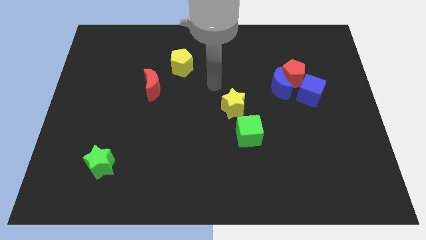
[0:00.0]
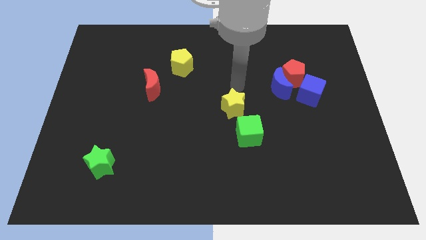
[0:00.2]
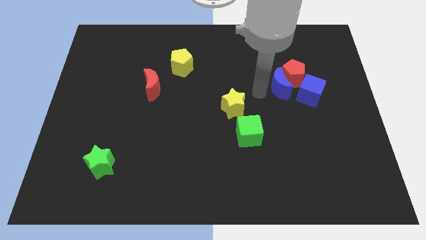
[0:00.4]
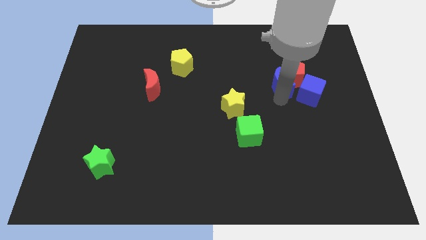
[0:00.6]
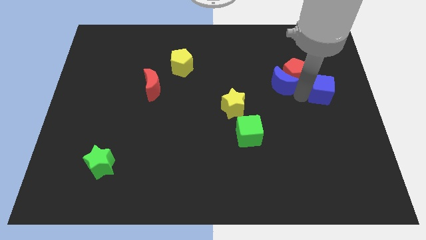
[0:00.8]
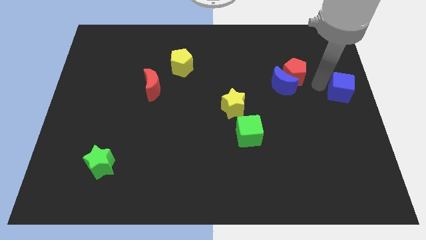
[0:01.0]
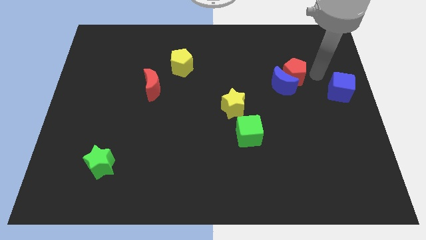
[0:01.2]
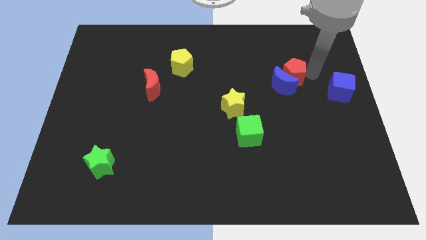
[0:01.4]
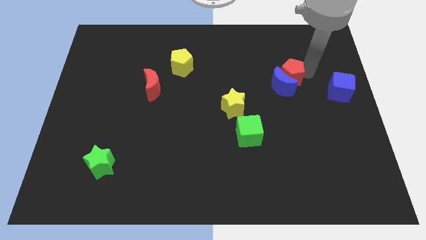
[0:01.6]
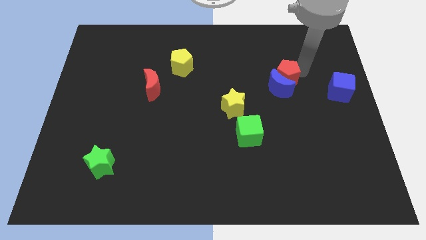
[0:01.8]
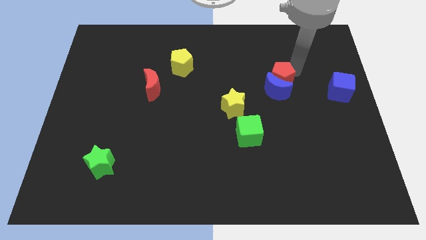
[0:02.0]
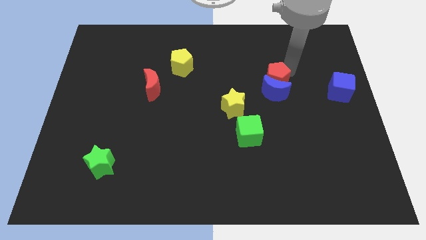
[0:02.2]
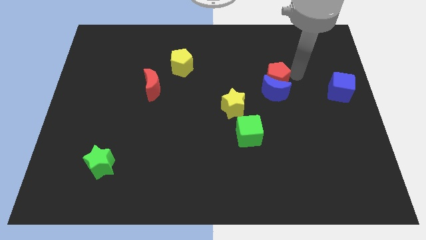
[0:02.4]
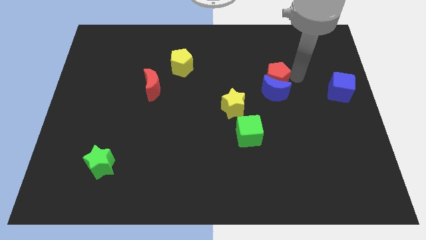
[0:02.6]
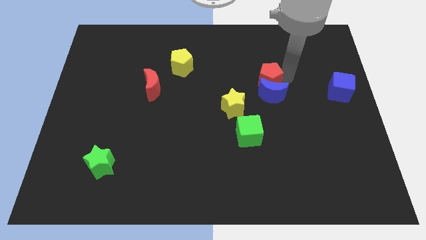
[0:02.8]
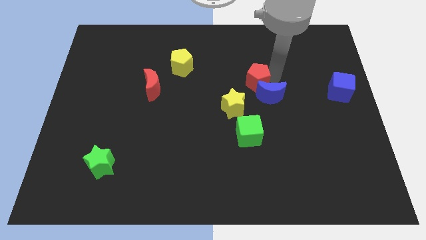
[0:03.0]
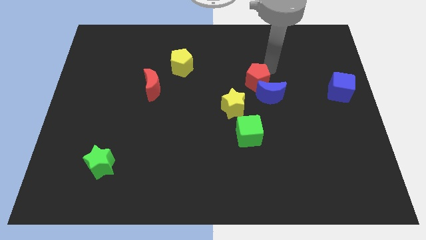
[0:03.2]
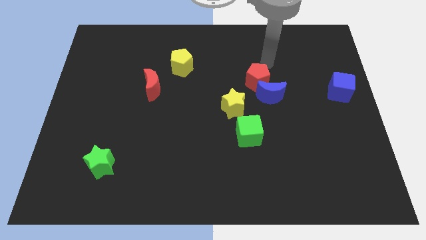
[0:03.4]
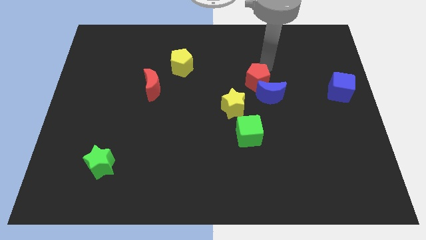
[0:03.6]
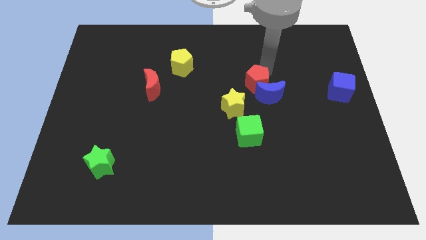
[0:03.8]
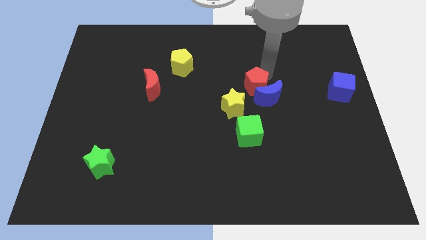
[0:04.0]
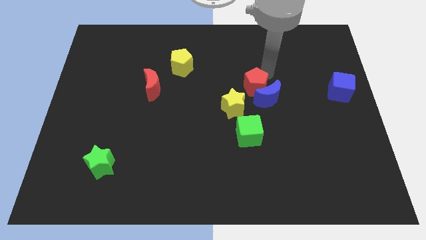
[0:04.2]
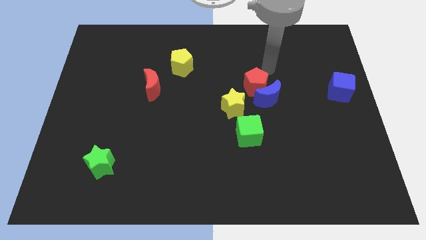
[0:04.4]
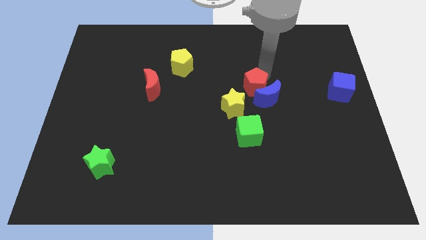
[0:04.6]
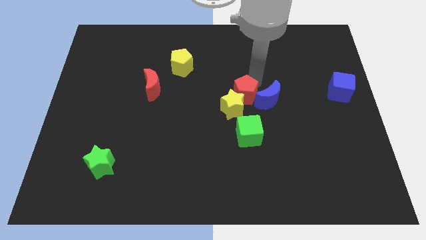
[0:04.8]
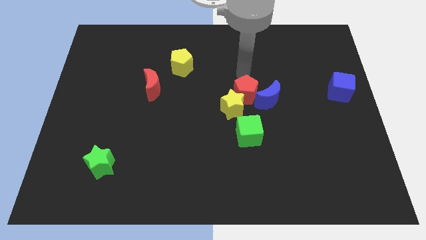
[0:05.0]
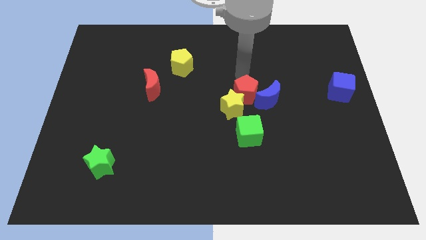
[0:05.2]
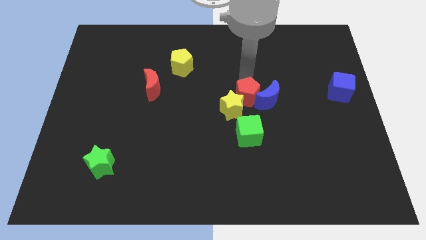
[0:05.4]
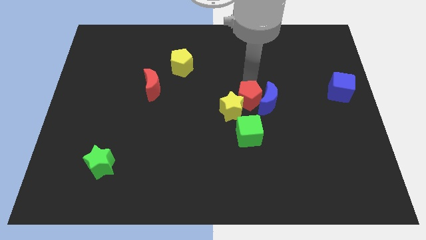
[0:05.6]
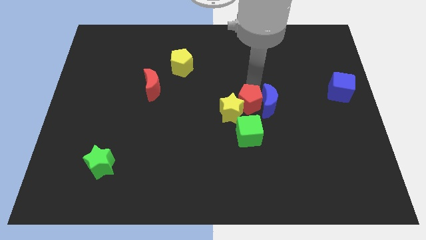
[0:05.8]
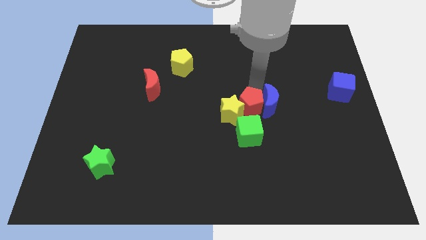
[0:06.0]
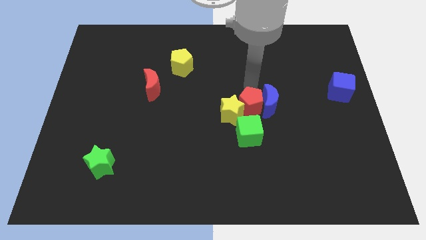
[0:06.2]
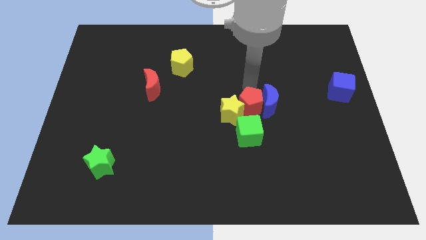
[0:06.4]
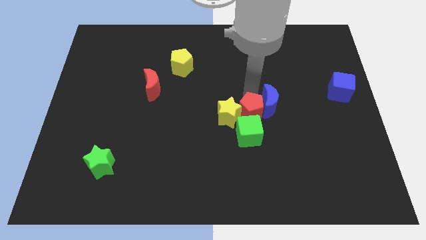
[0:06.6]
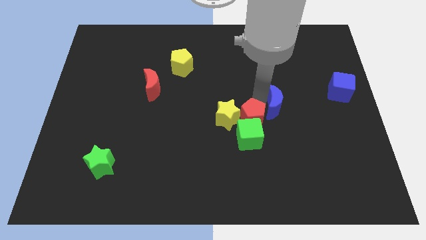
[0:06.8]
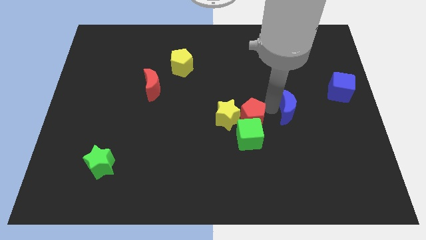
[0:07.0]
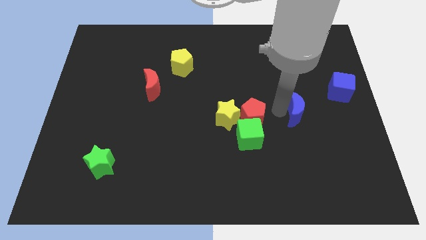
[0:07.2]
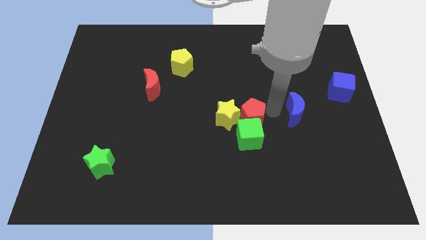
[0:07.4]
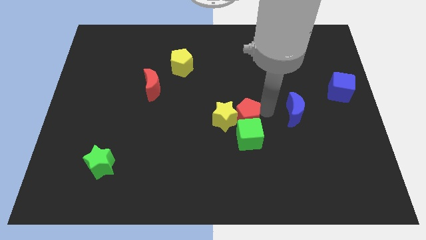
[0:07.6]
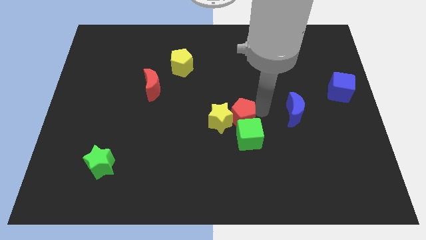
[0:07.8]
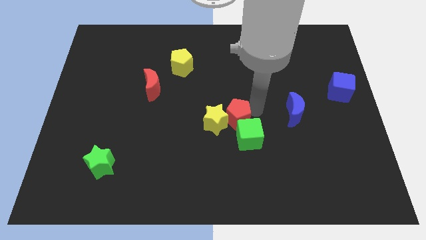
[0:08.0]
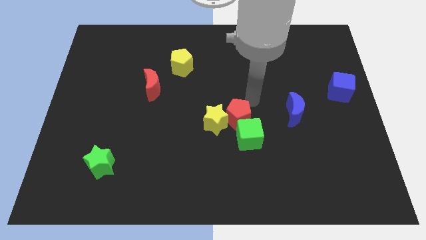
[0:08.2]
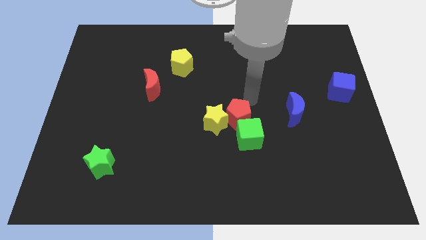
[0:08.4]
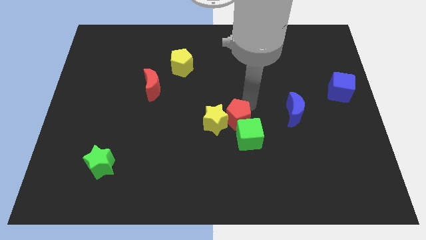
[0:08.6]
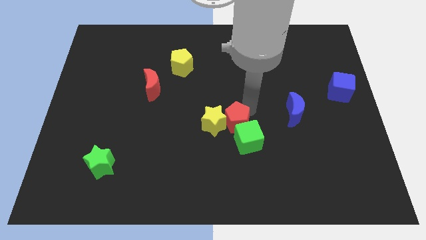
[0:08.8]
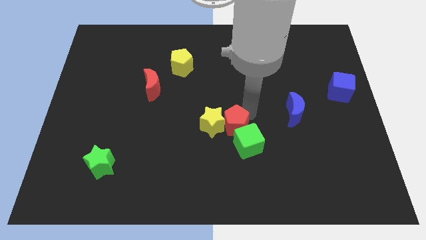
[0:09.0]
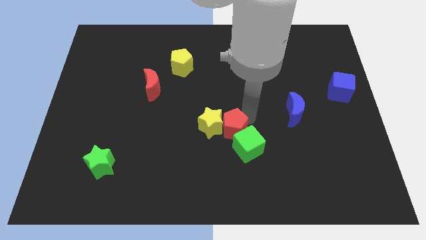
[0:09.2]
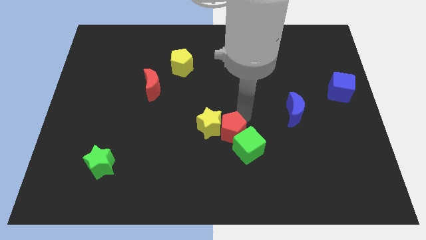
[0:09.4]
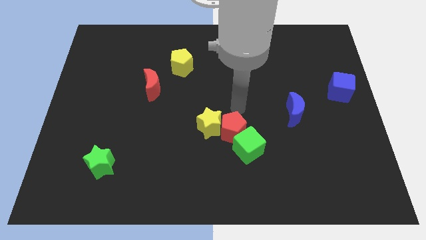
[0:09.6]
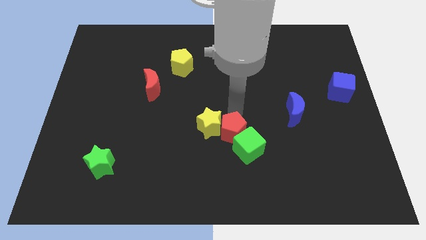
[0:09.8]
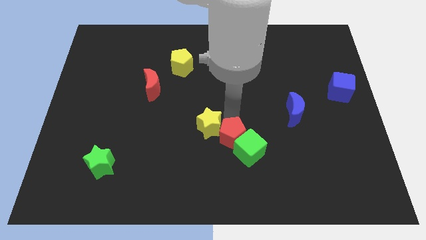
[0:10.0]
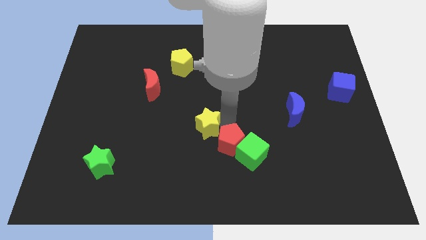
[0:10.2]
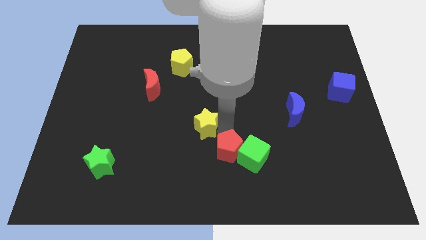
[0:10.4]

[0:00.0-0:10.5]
move the red pentagon diagonally down and to the left of the green cube

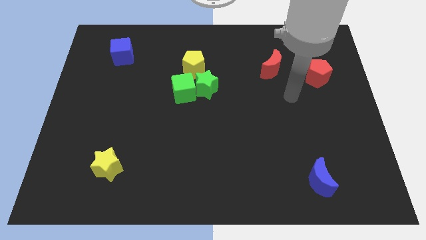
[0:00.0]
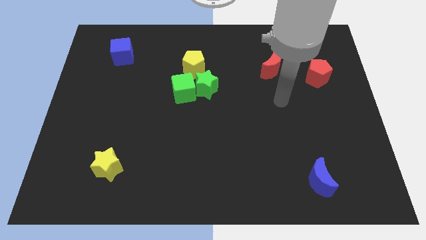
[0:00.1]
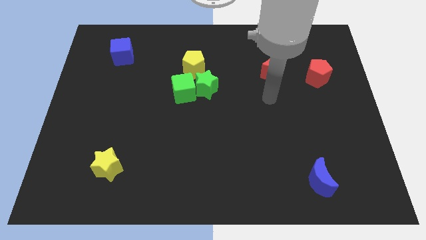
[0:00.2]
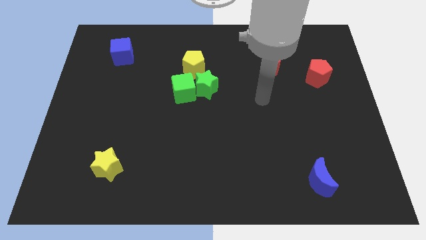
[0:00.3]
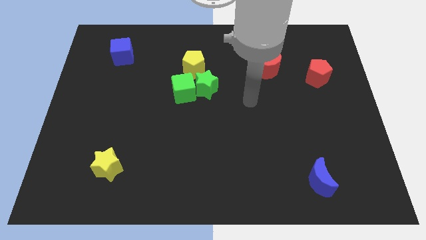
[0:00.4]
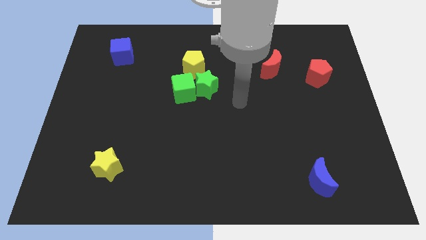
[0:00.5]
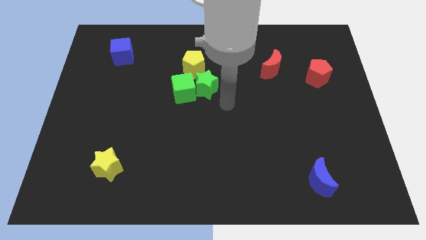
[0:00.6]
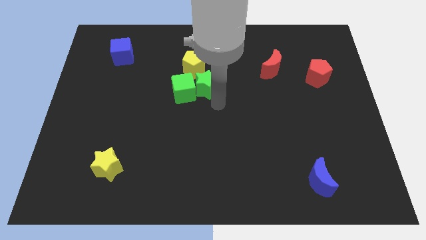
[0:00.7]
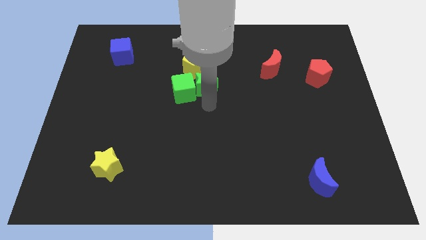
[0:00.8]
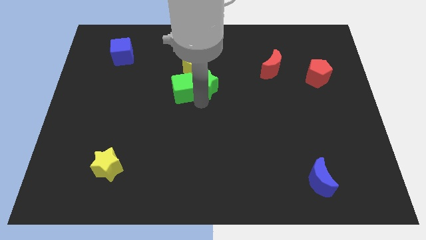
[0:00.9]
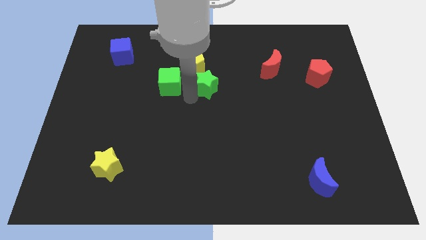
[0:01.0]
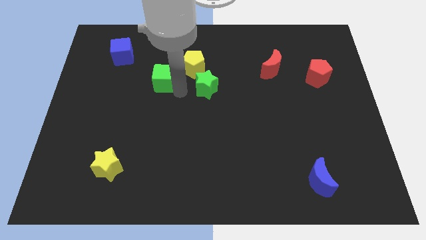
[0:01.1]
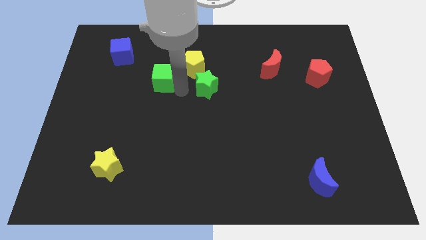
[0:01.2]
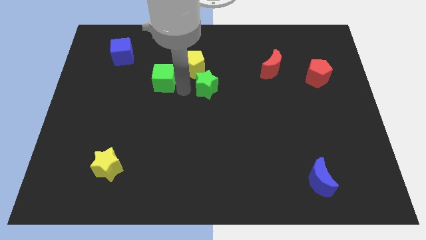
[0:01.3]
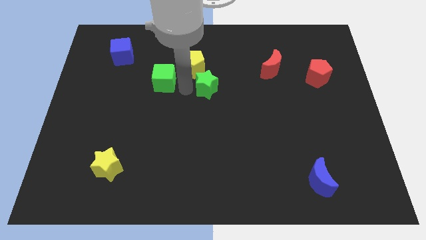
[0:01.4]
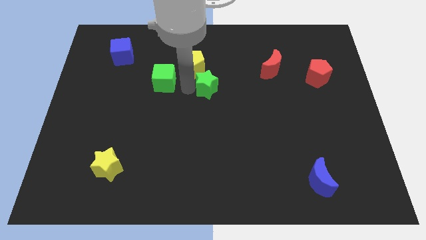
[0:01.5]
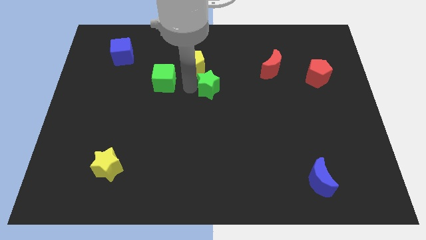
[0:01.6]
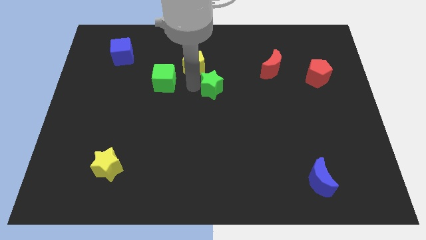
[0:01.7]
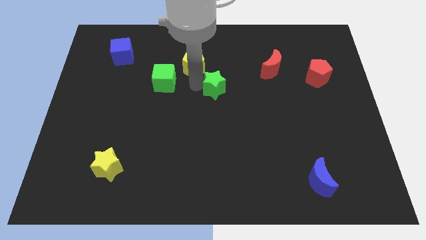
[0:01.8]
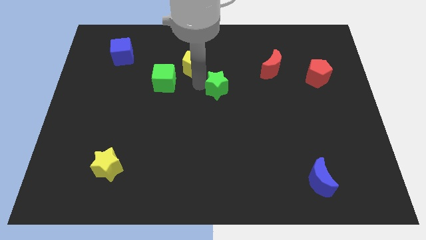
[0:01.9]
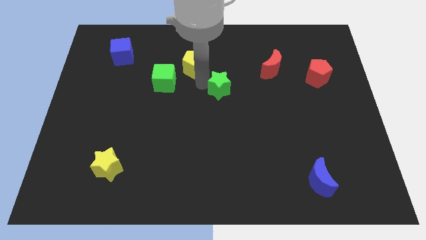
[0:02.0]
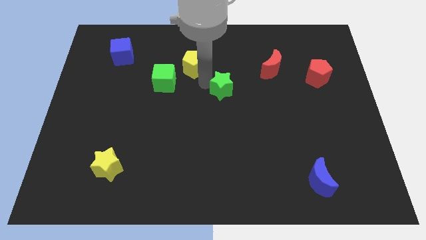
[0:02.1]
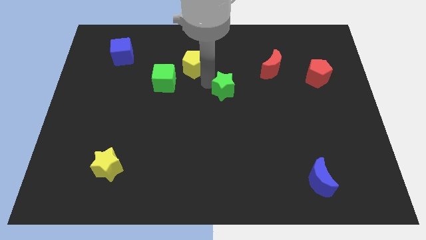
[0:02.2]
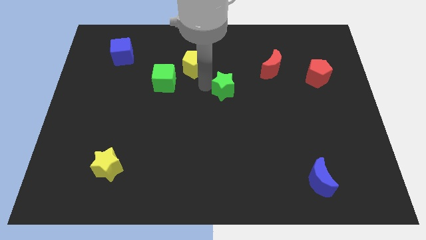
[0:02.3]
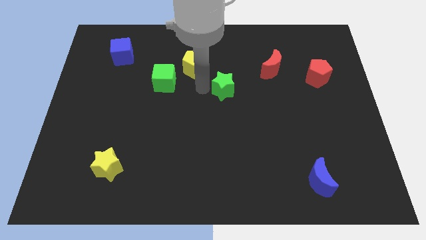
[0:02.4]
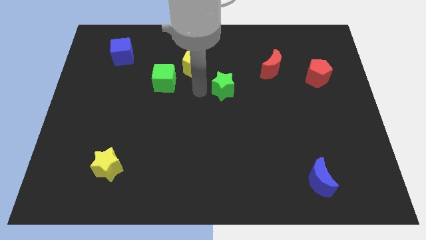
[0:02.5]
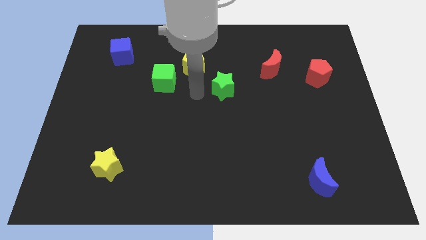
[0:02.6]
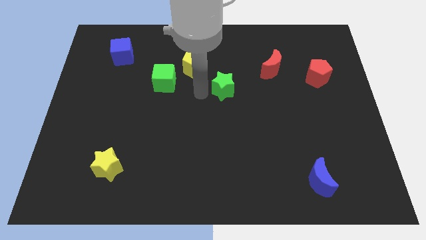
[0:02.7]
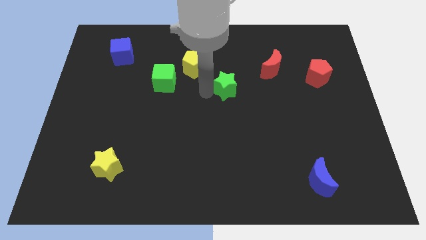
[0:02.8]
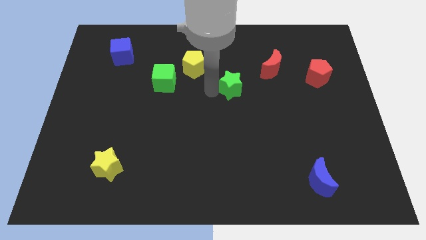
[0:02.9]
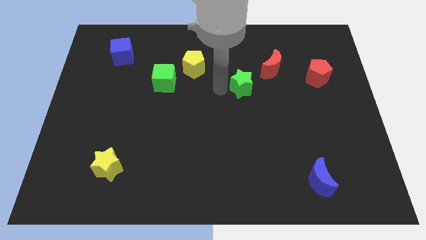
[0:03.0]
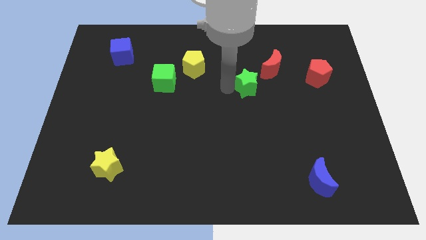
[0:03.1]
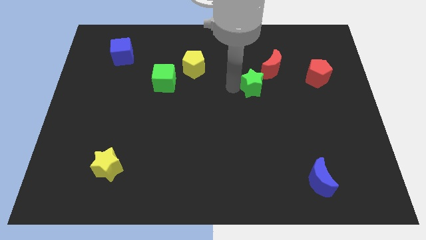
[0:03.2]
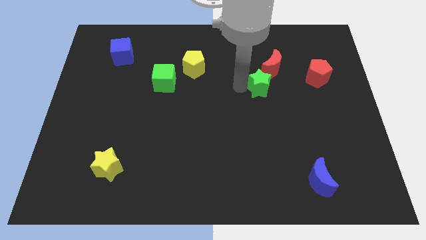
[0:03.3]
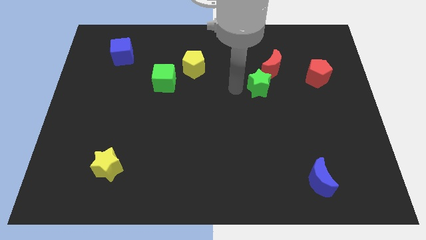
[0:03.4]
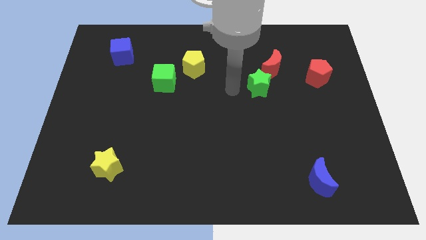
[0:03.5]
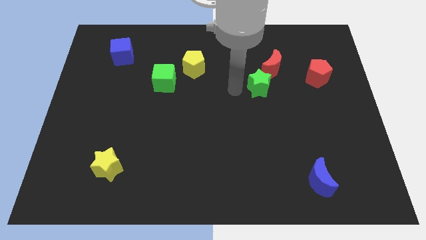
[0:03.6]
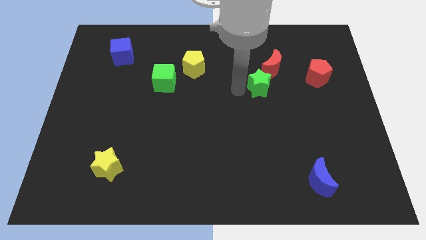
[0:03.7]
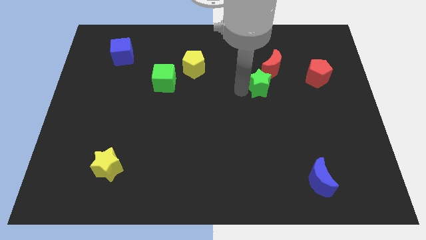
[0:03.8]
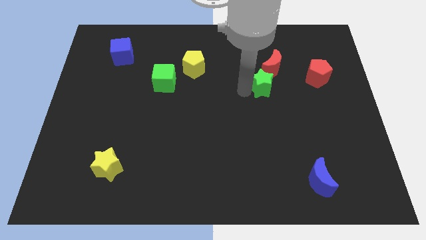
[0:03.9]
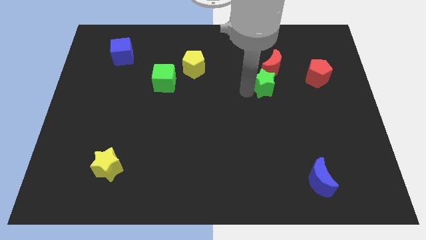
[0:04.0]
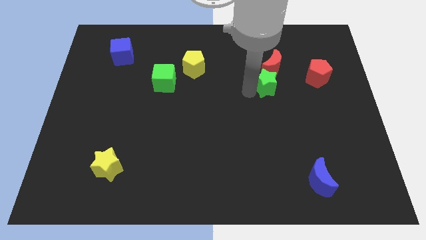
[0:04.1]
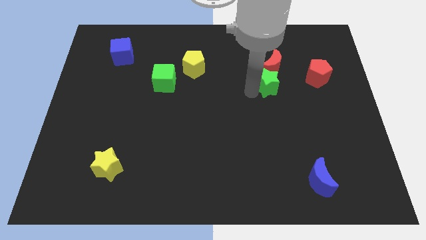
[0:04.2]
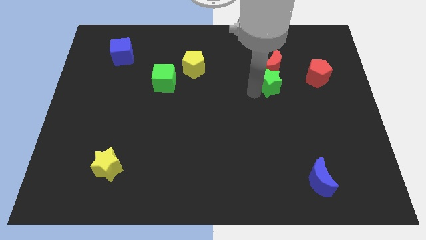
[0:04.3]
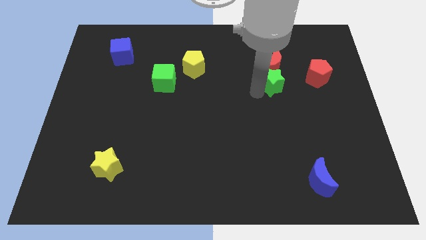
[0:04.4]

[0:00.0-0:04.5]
slide the green star to the bottom right side of the red moon
